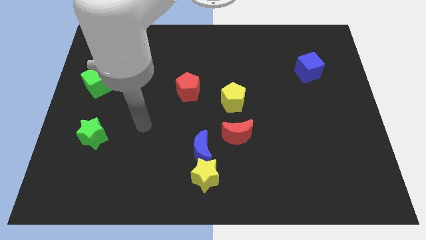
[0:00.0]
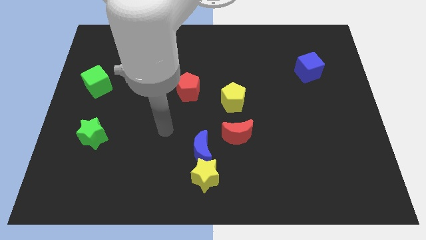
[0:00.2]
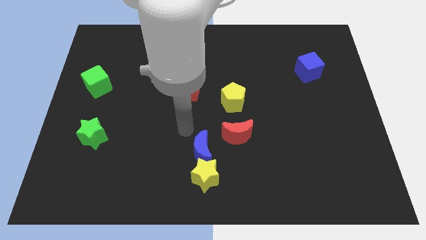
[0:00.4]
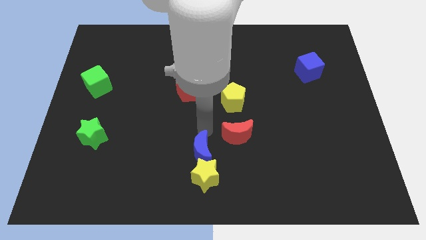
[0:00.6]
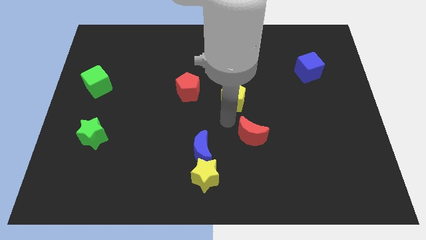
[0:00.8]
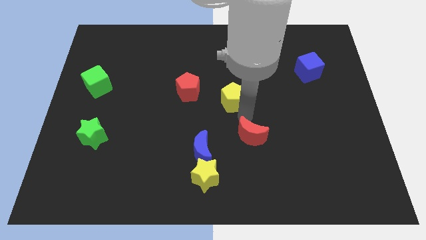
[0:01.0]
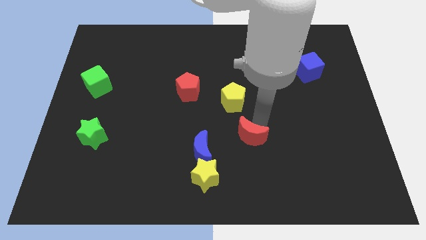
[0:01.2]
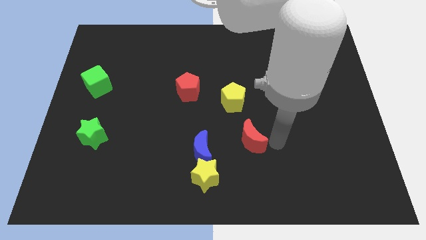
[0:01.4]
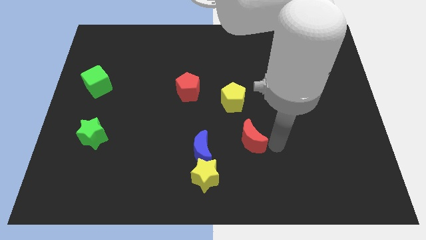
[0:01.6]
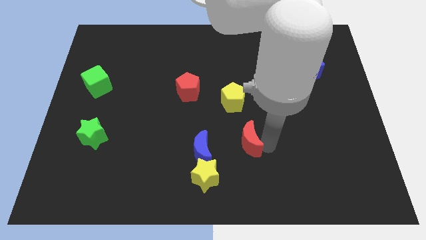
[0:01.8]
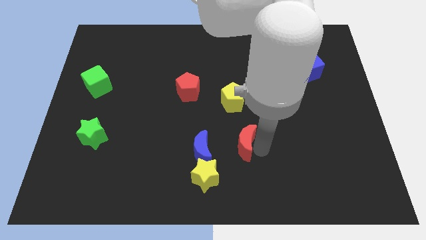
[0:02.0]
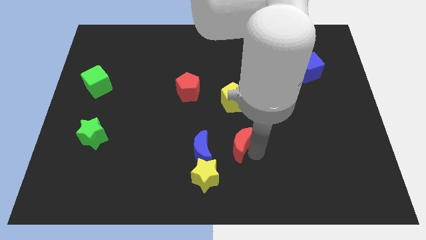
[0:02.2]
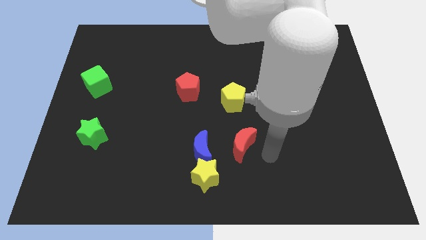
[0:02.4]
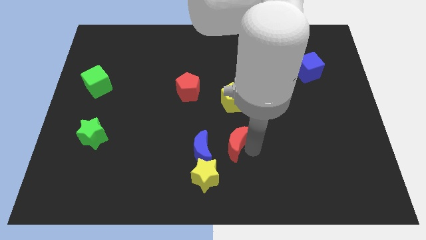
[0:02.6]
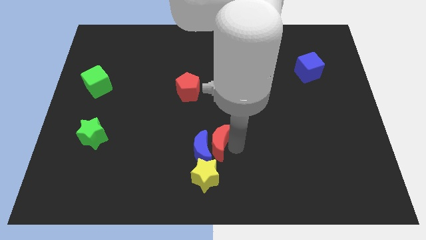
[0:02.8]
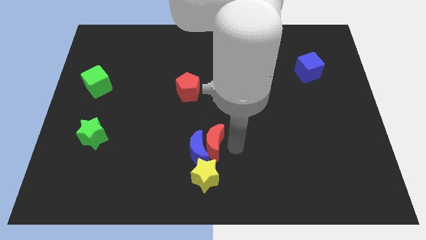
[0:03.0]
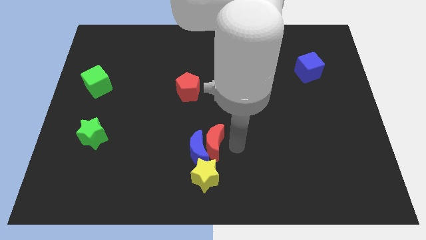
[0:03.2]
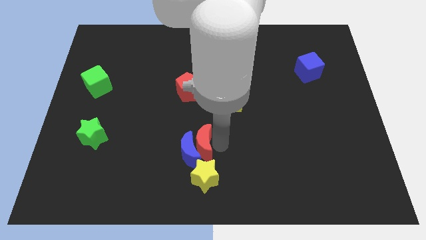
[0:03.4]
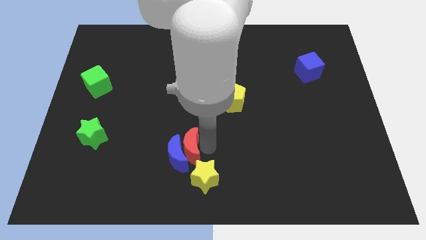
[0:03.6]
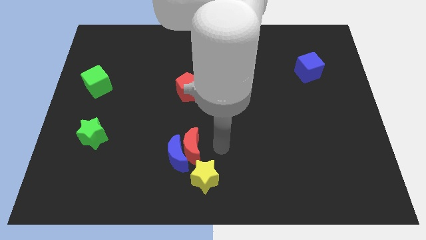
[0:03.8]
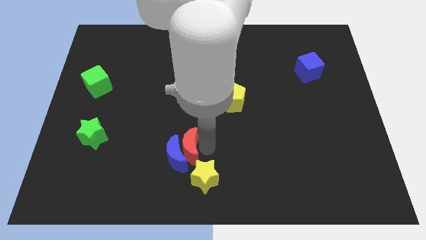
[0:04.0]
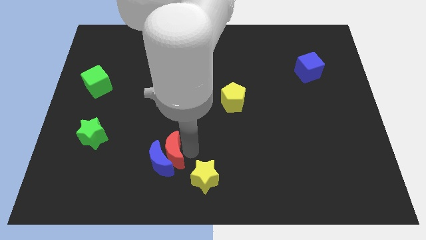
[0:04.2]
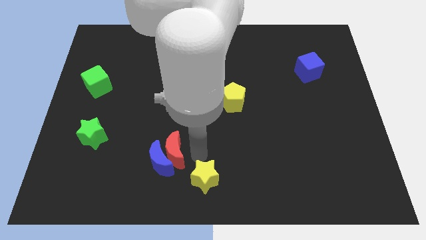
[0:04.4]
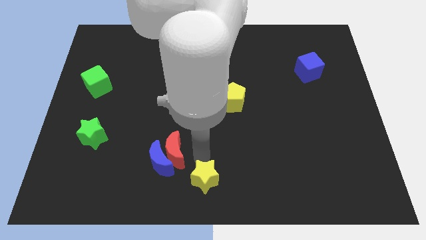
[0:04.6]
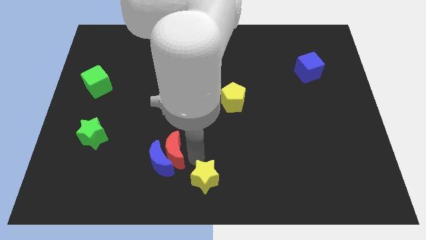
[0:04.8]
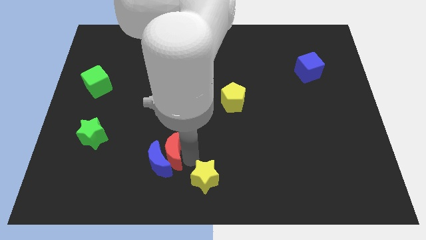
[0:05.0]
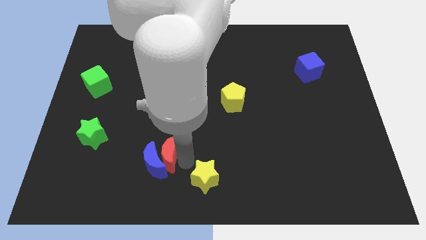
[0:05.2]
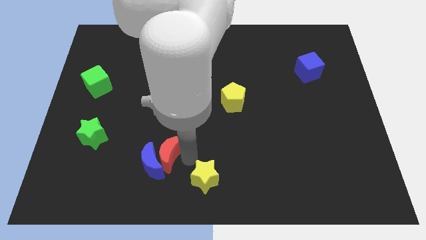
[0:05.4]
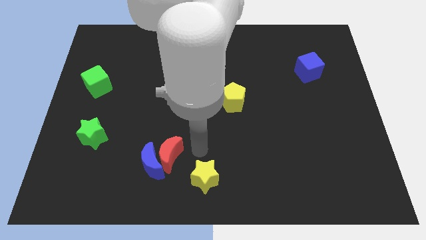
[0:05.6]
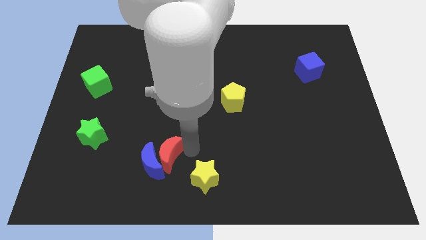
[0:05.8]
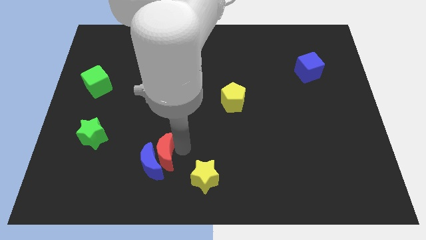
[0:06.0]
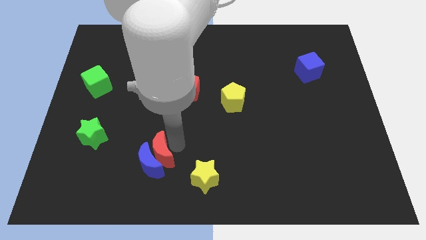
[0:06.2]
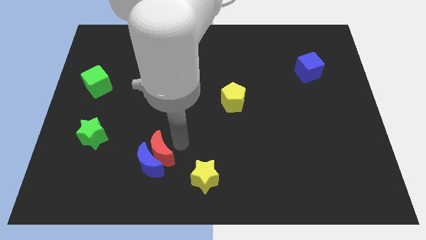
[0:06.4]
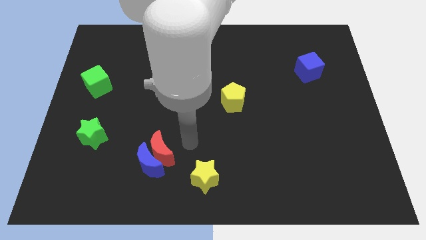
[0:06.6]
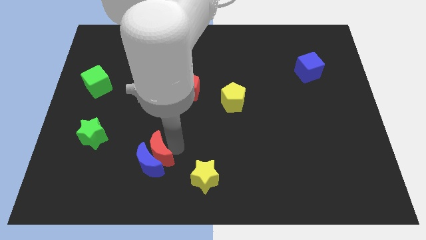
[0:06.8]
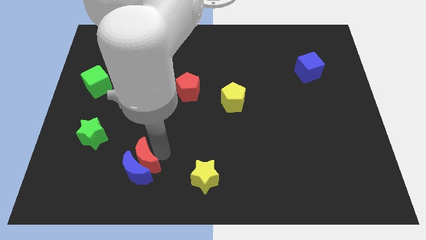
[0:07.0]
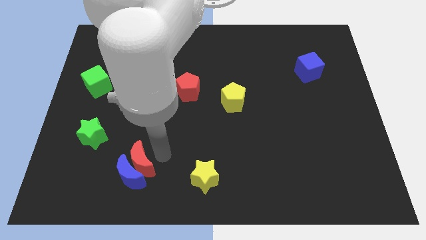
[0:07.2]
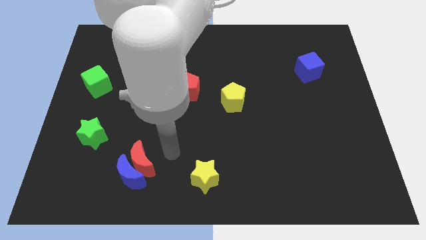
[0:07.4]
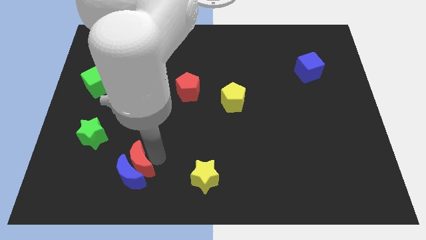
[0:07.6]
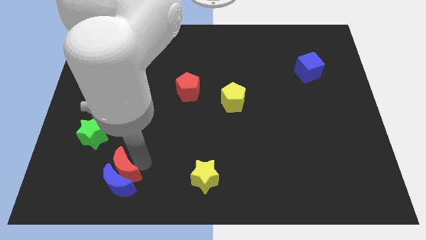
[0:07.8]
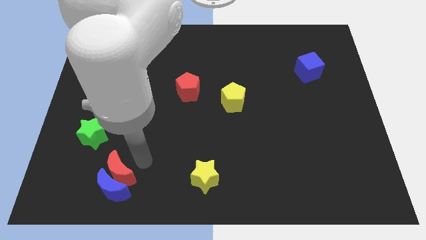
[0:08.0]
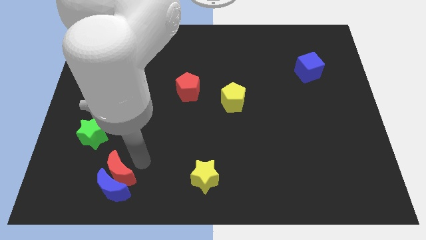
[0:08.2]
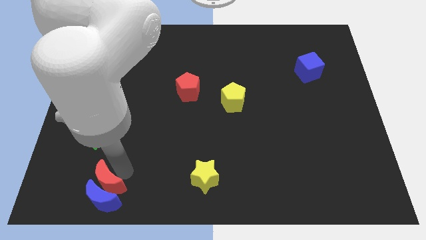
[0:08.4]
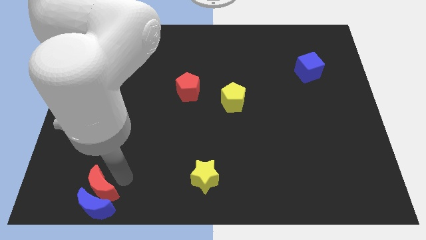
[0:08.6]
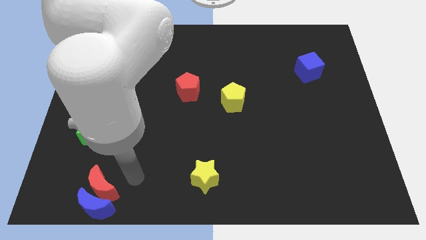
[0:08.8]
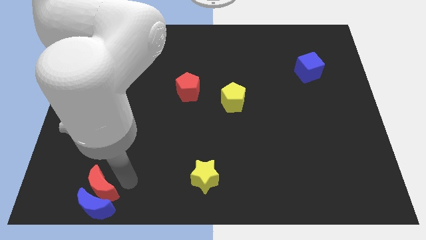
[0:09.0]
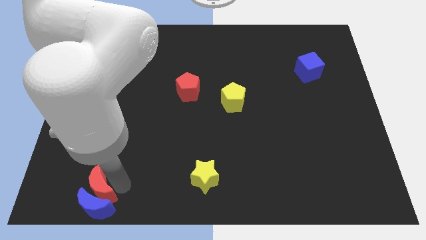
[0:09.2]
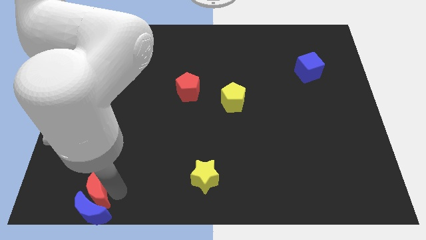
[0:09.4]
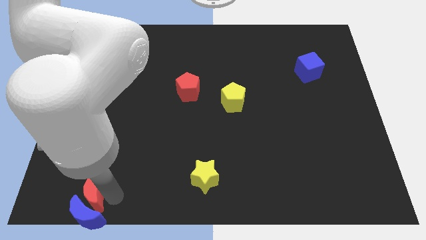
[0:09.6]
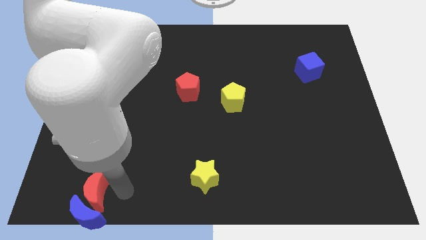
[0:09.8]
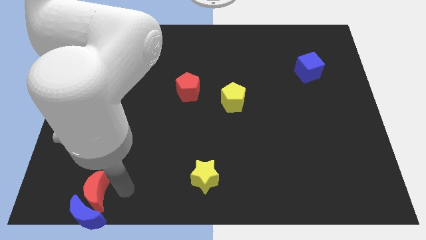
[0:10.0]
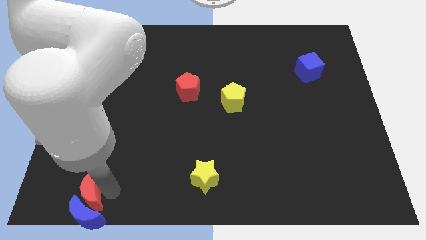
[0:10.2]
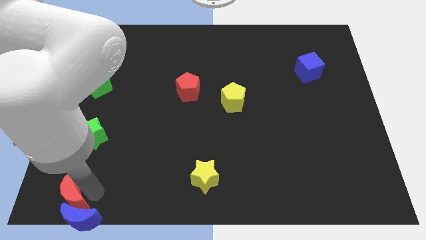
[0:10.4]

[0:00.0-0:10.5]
push the red moon to the lower left corner

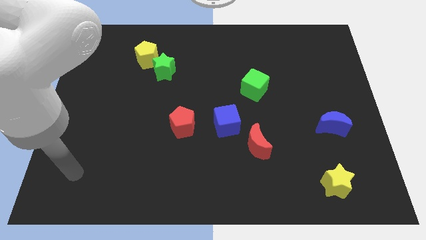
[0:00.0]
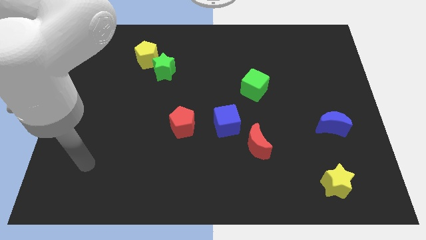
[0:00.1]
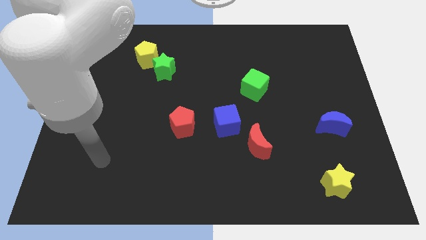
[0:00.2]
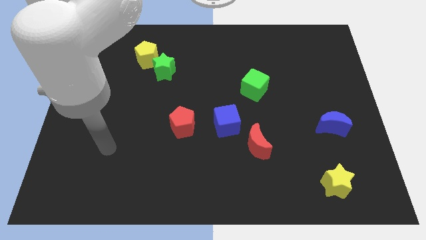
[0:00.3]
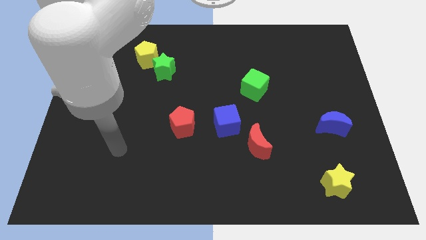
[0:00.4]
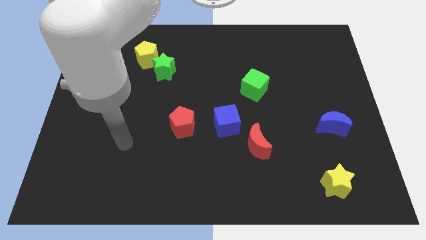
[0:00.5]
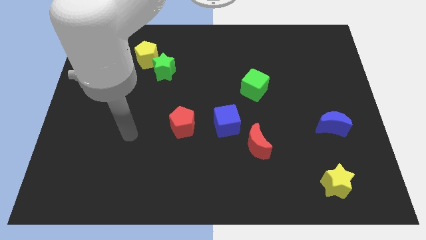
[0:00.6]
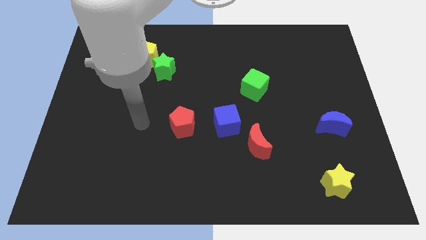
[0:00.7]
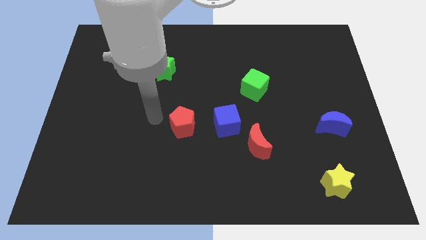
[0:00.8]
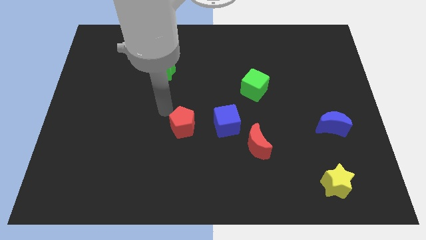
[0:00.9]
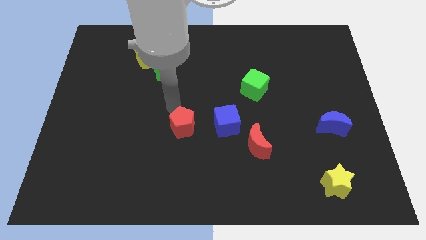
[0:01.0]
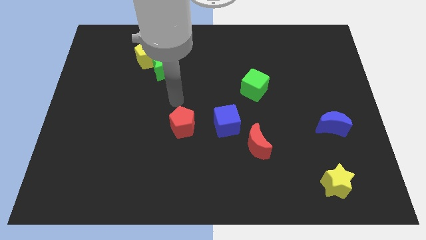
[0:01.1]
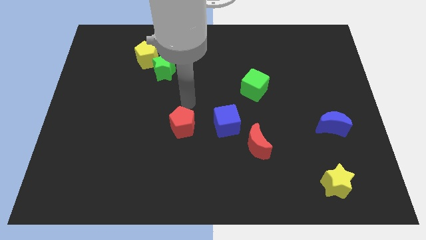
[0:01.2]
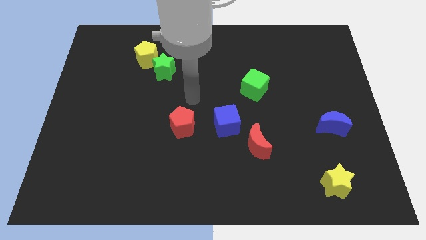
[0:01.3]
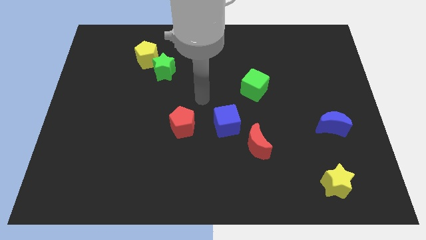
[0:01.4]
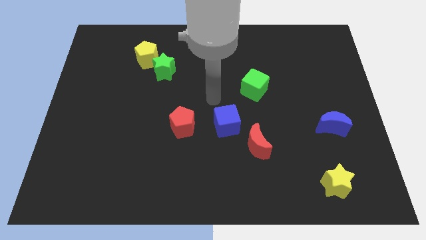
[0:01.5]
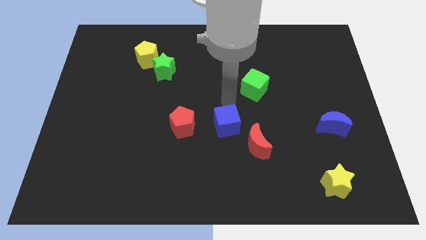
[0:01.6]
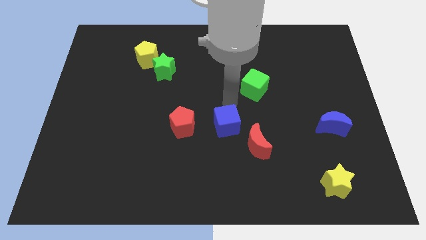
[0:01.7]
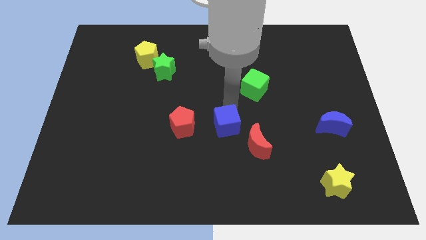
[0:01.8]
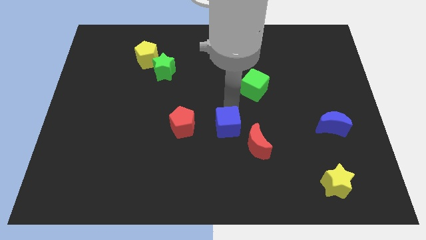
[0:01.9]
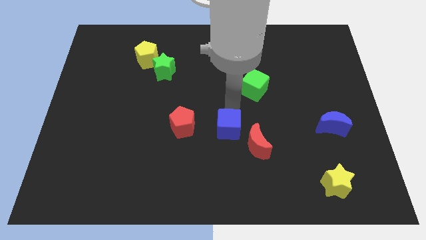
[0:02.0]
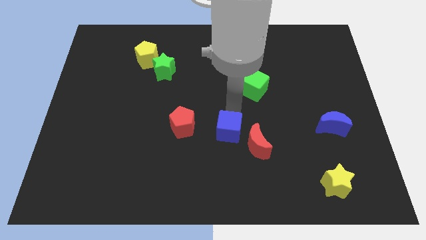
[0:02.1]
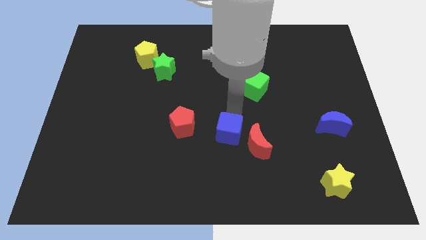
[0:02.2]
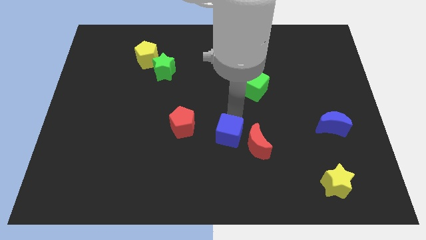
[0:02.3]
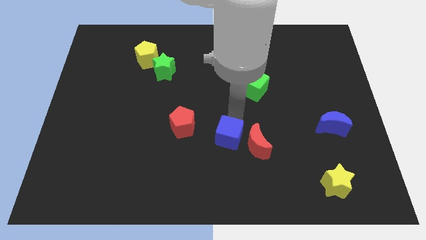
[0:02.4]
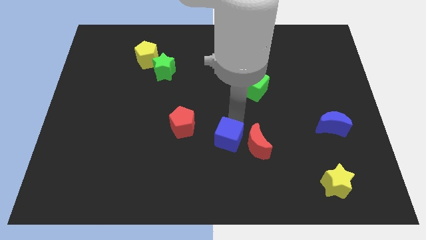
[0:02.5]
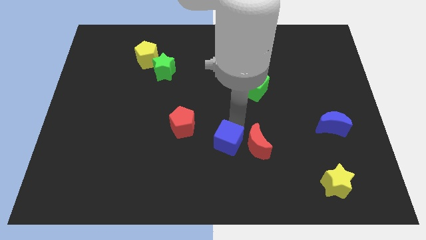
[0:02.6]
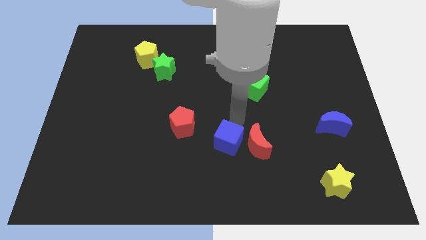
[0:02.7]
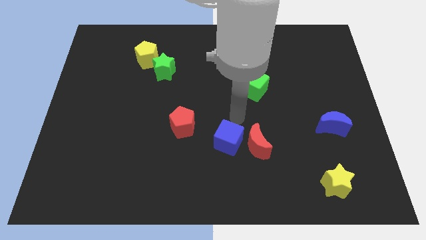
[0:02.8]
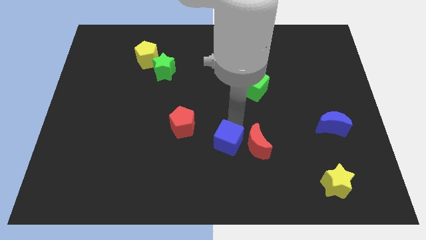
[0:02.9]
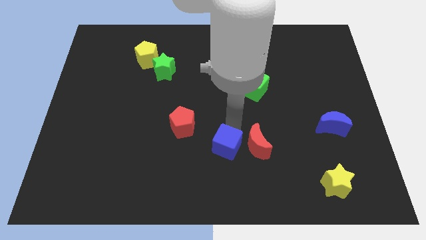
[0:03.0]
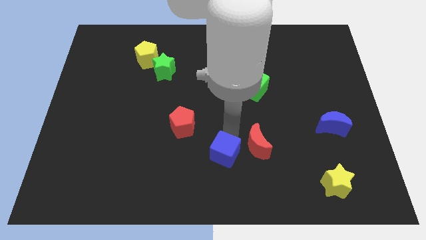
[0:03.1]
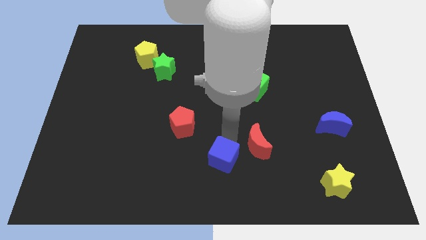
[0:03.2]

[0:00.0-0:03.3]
push the blue cube to the bottom
